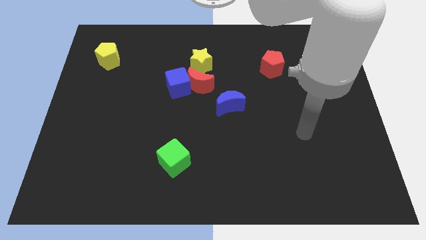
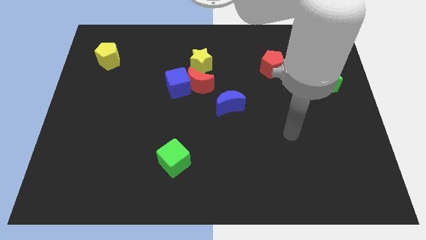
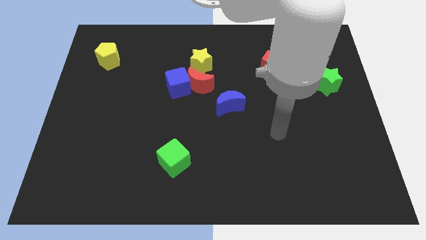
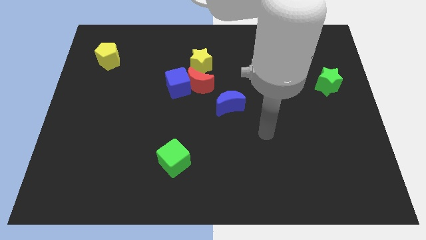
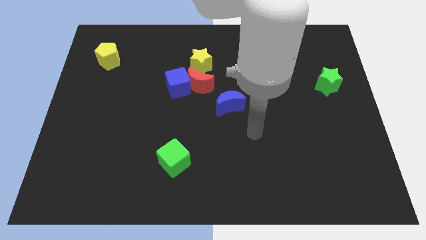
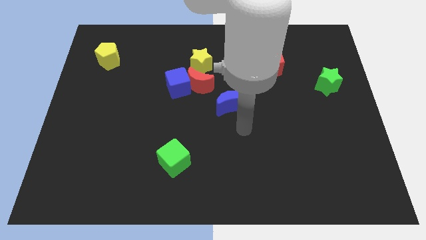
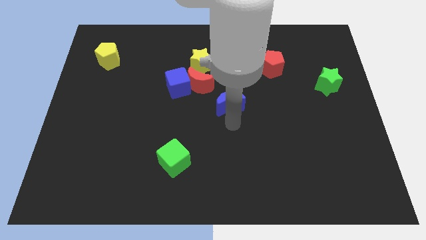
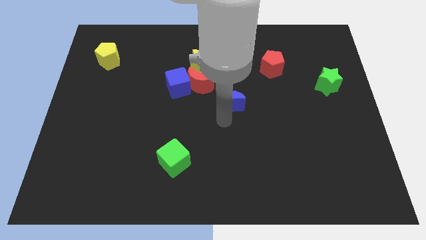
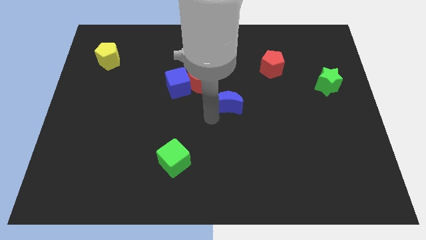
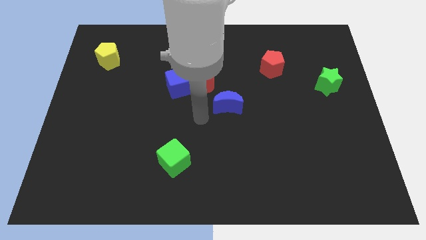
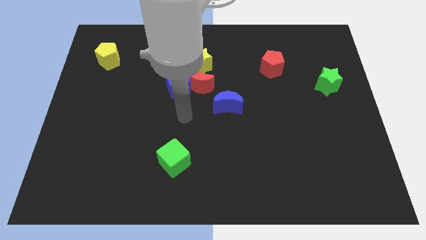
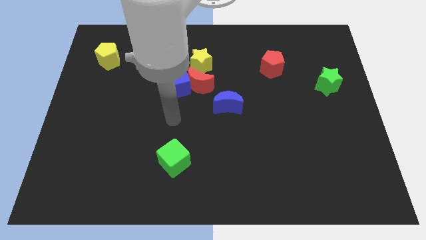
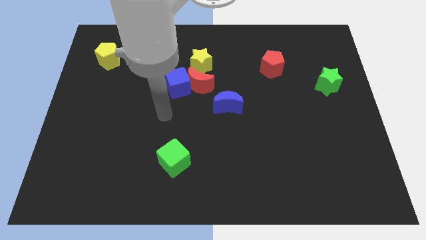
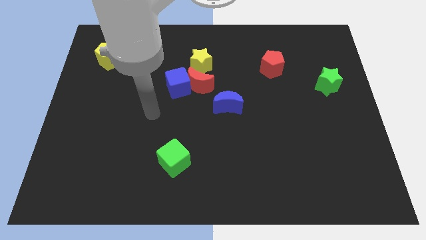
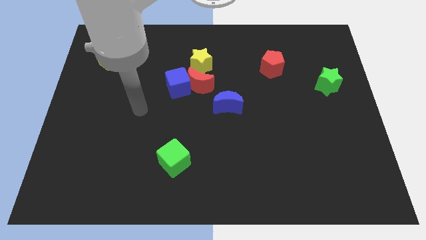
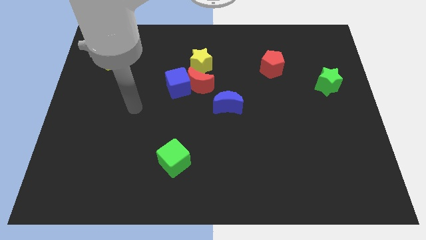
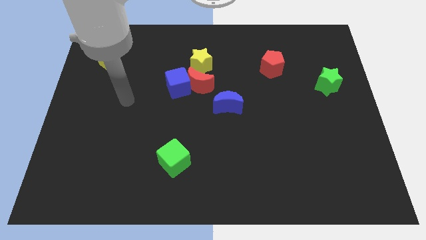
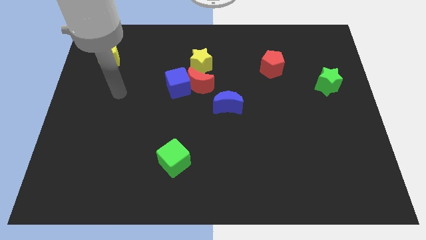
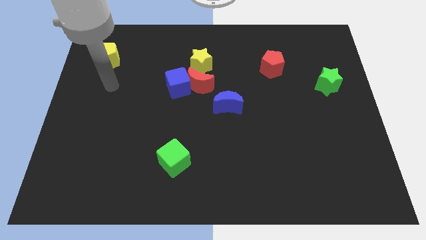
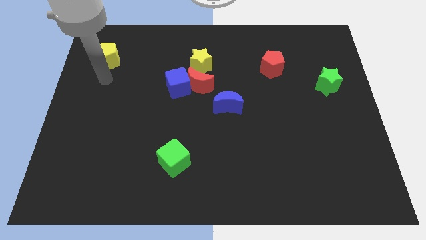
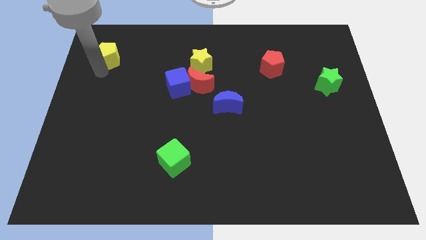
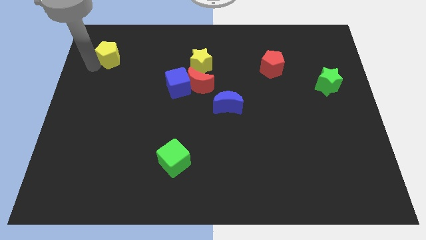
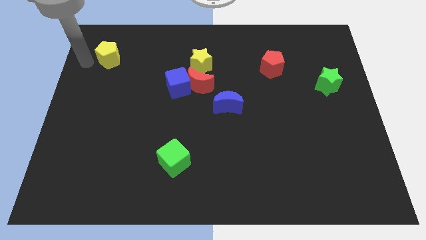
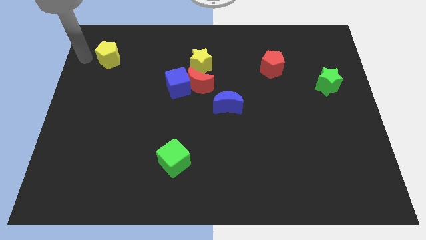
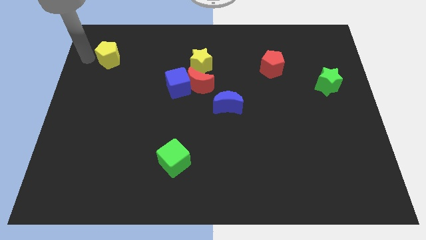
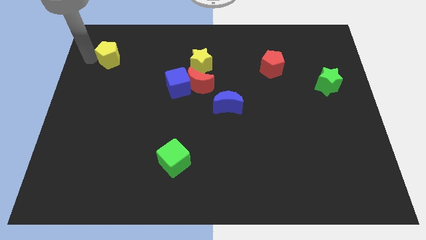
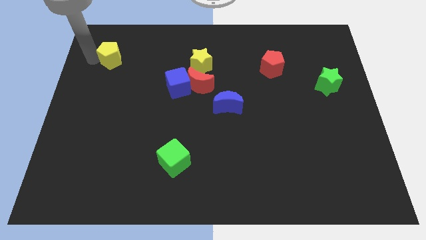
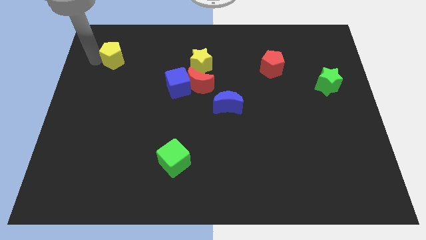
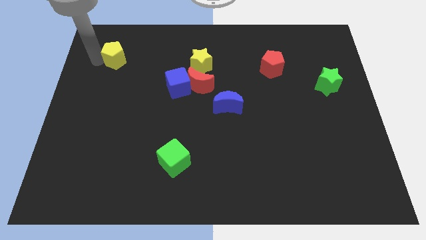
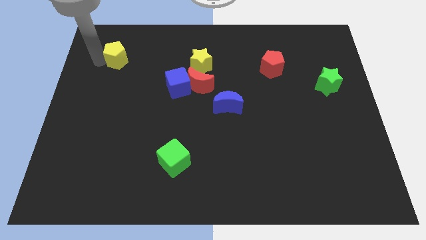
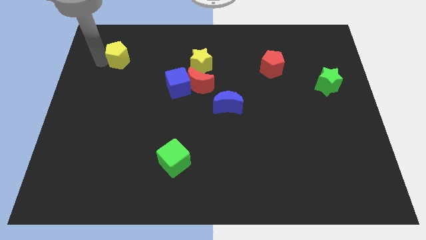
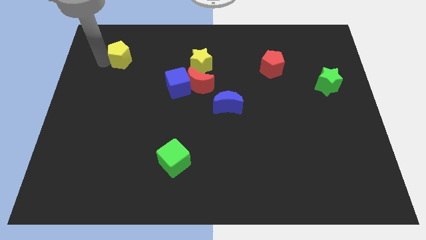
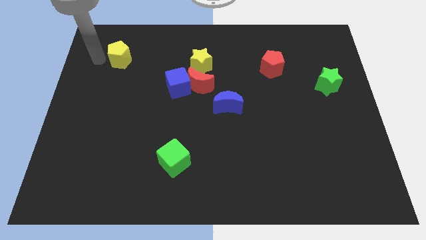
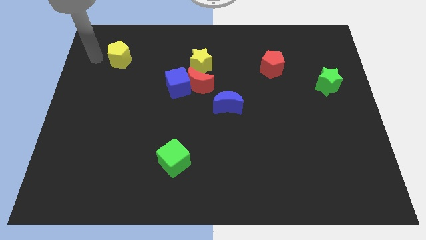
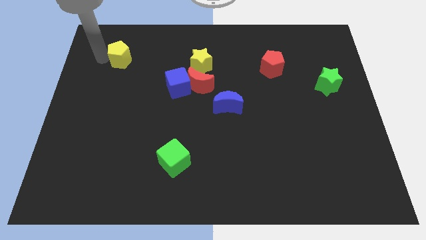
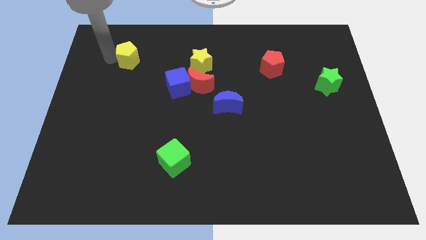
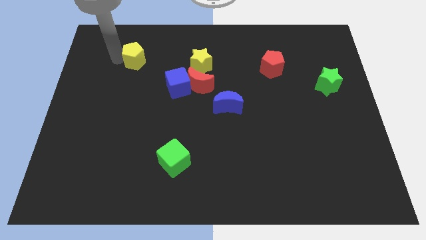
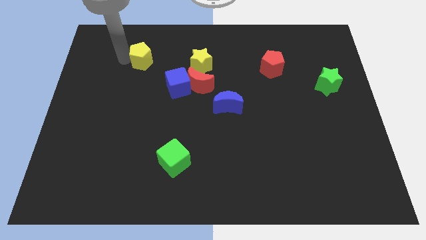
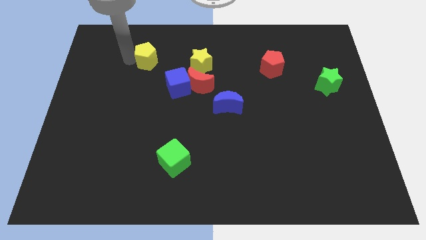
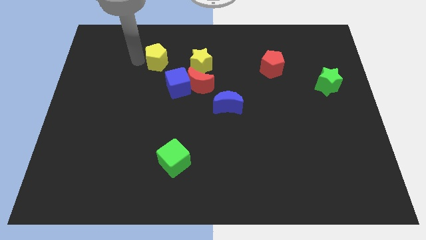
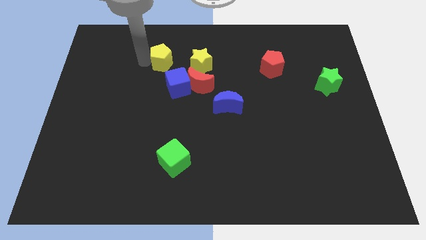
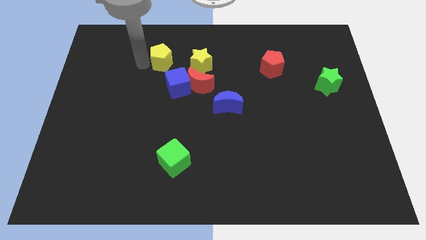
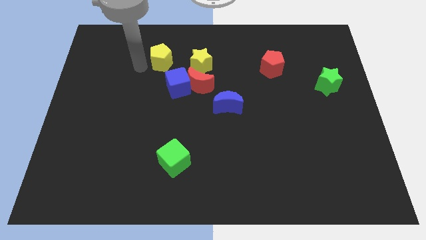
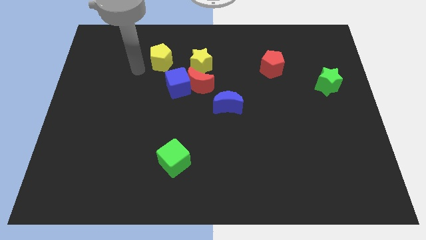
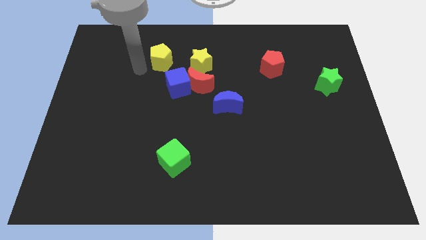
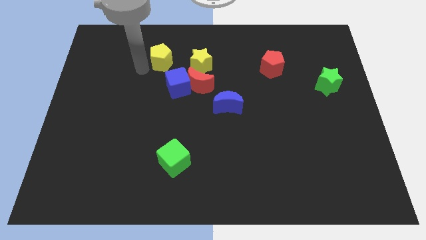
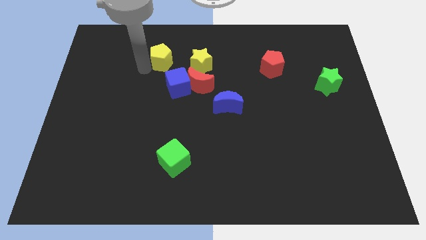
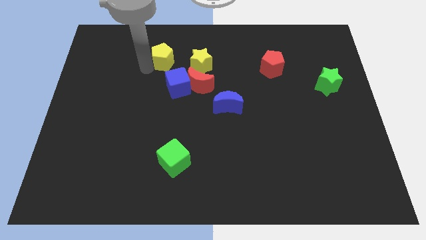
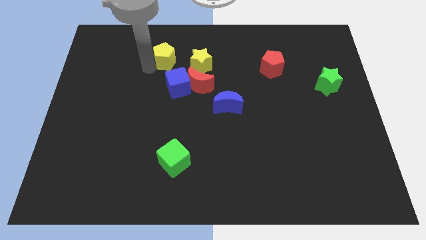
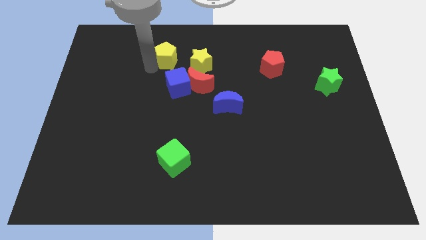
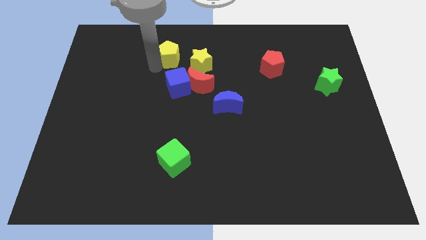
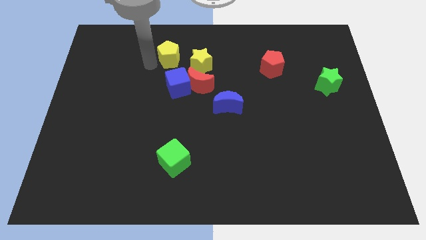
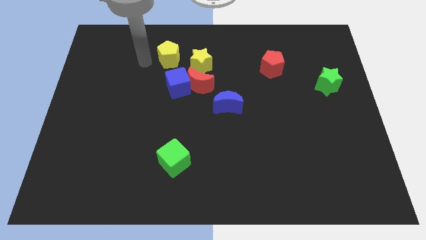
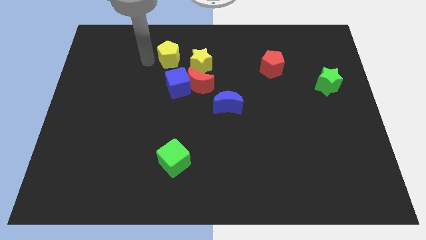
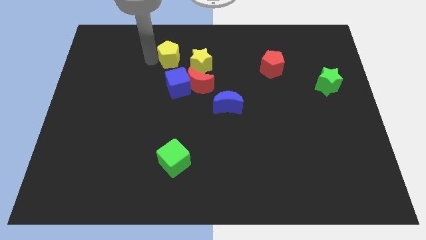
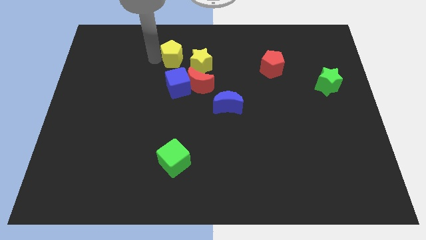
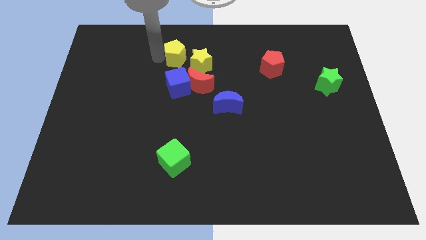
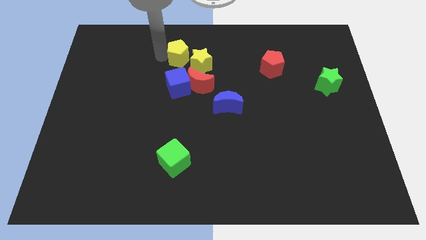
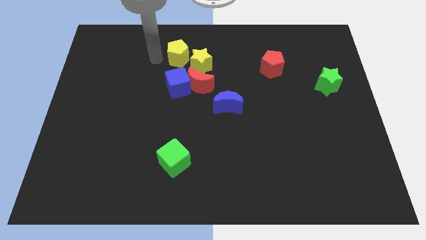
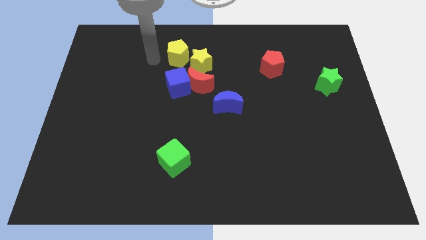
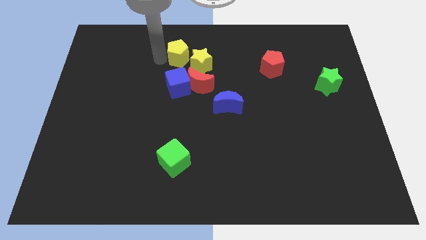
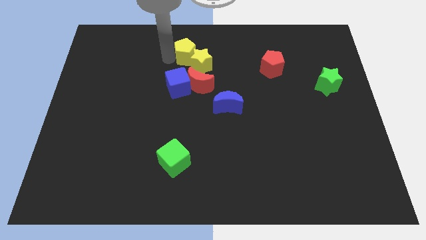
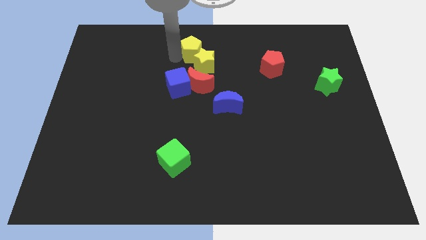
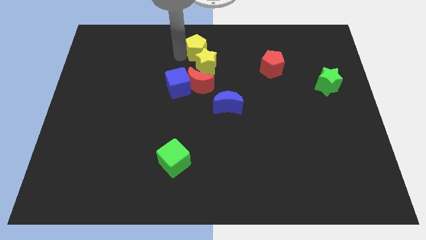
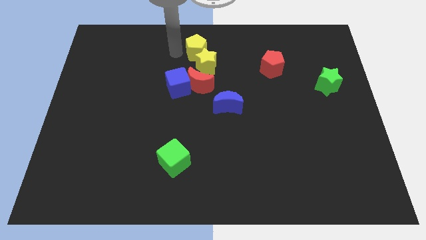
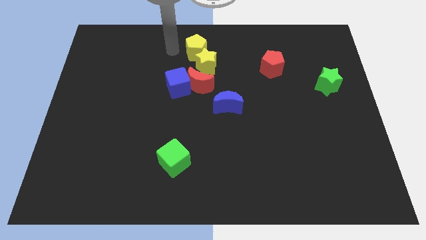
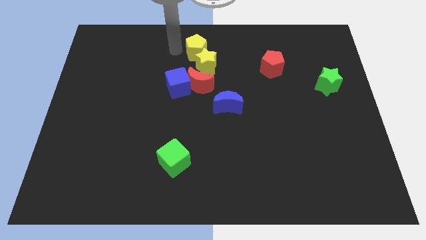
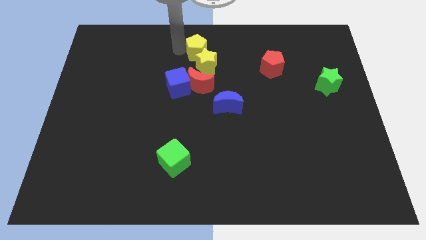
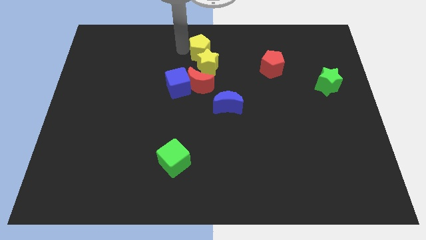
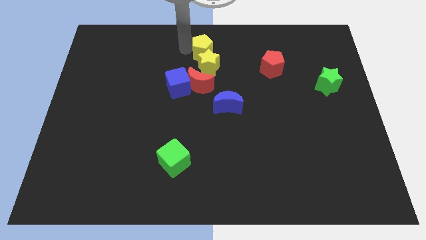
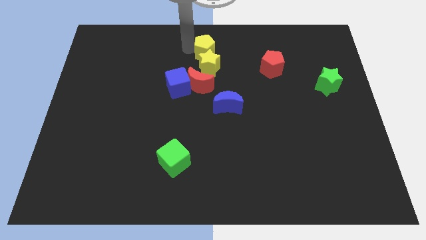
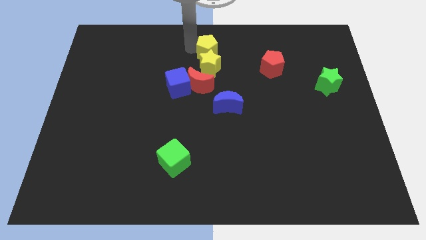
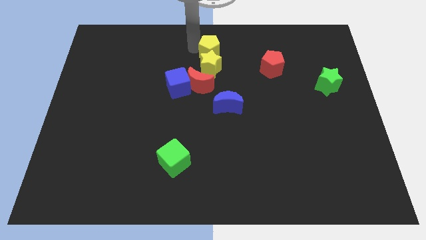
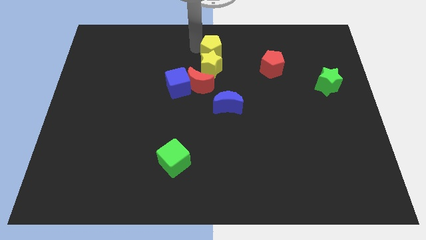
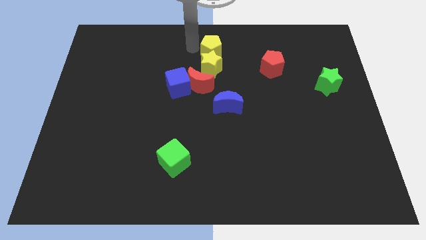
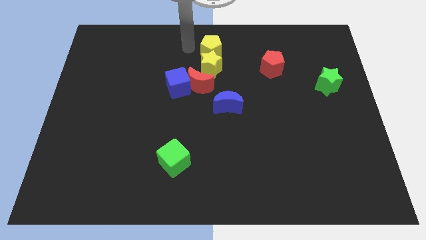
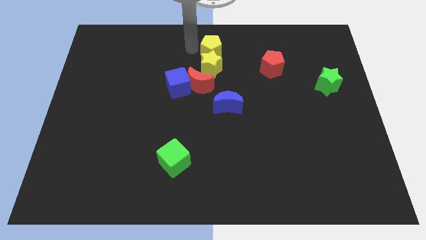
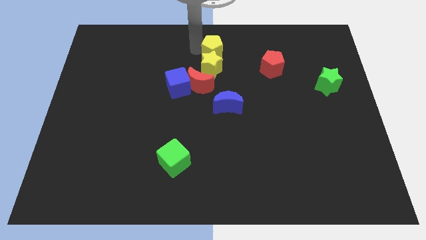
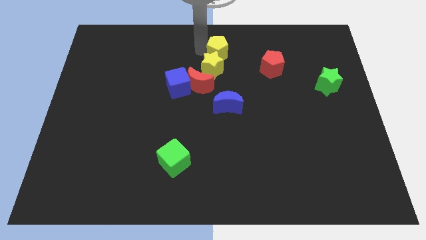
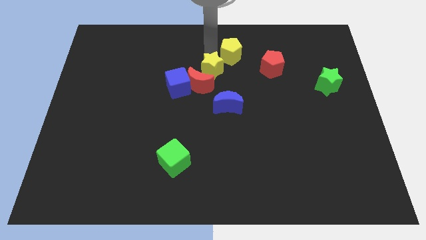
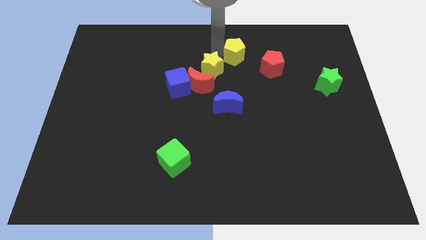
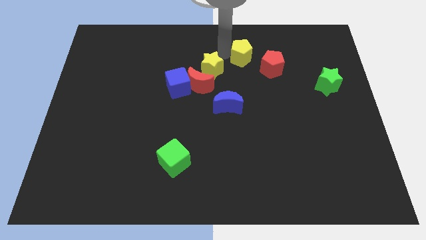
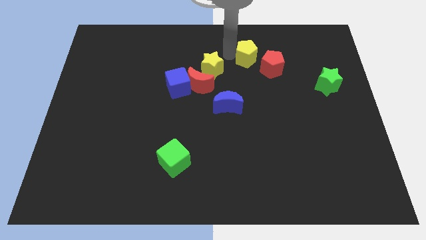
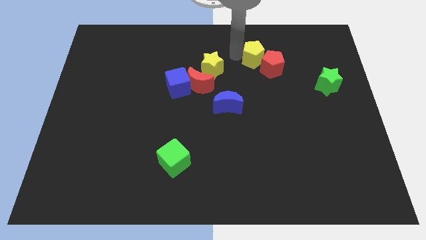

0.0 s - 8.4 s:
slide the yellow pentagon close to the red pentagon
